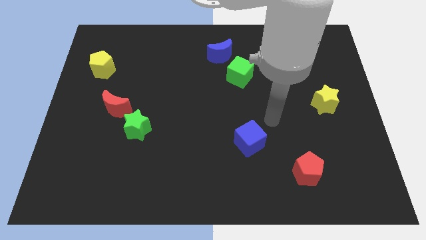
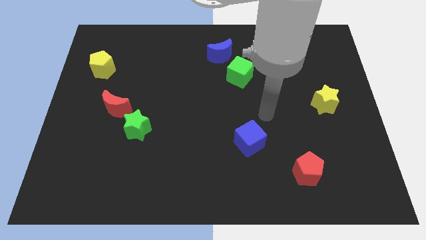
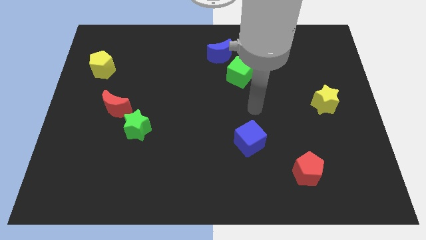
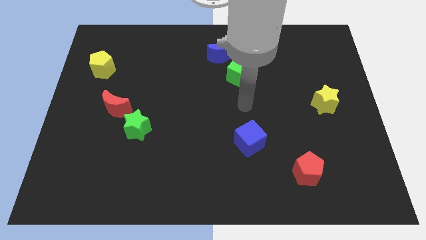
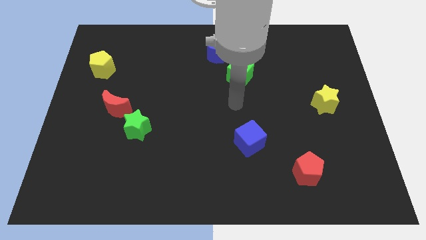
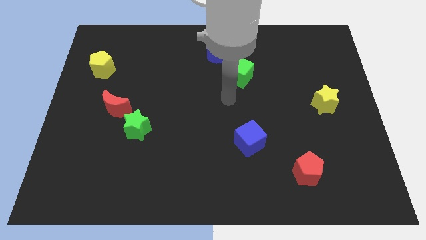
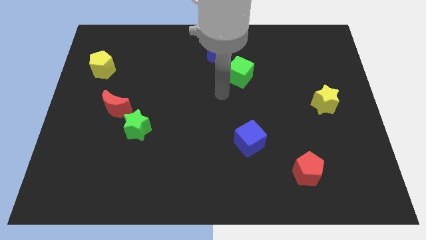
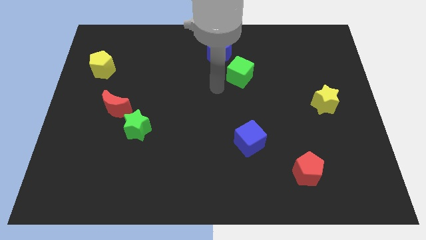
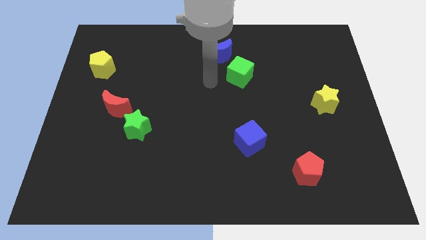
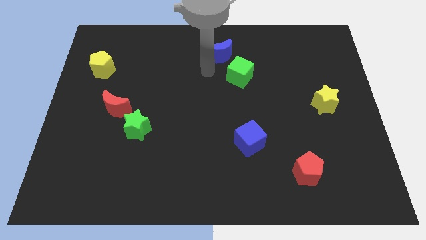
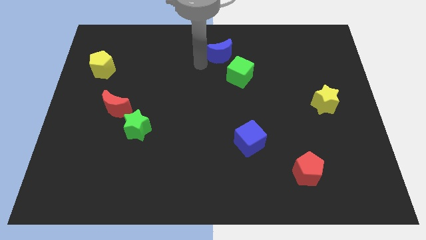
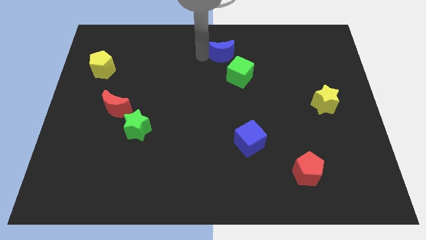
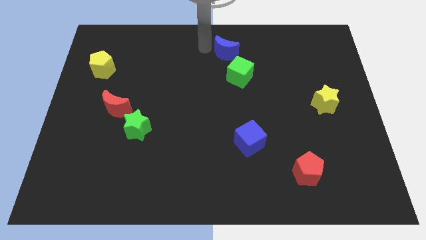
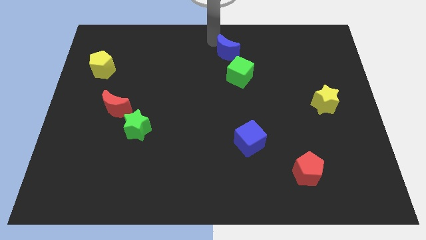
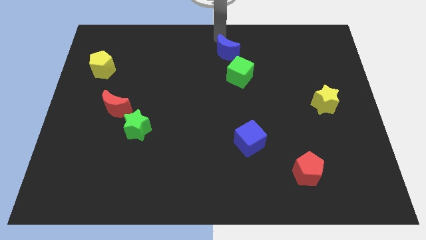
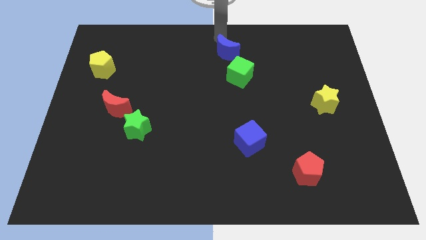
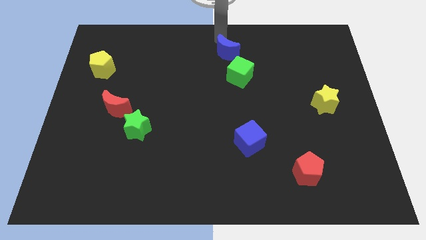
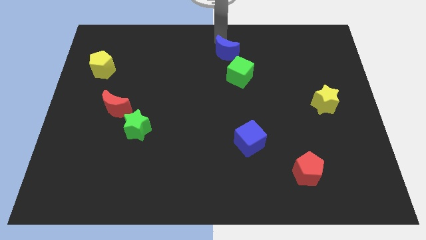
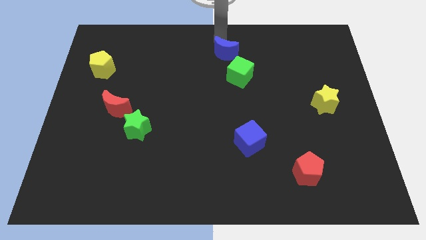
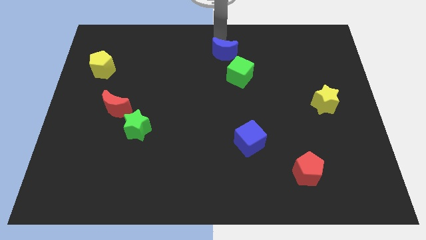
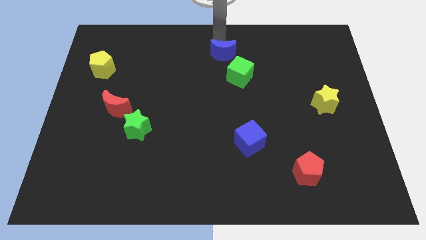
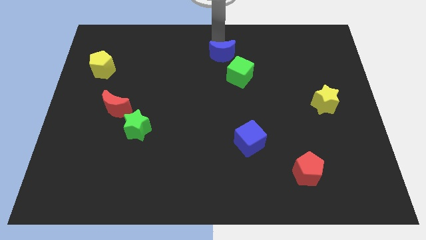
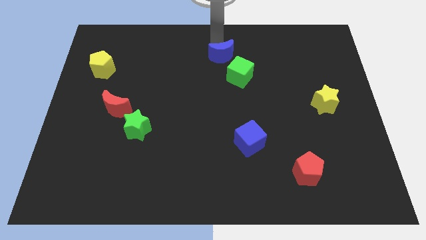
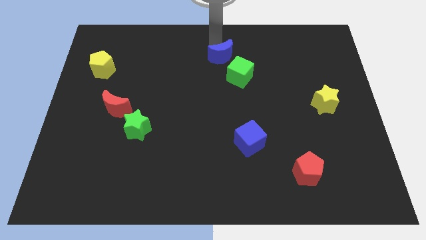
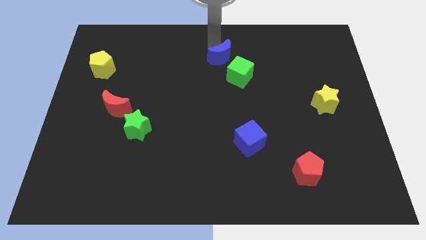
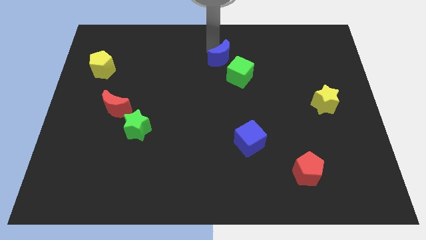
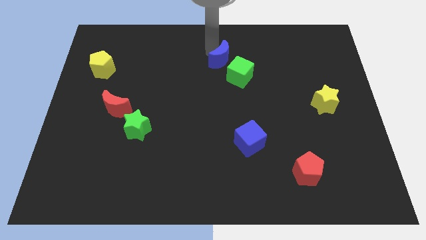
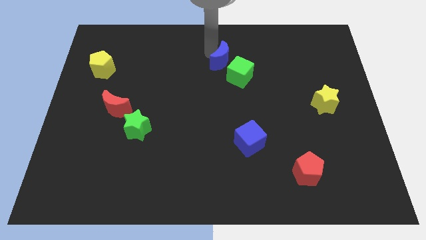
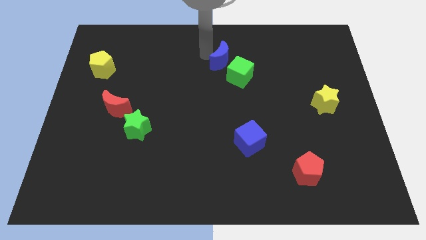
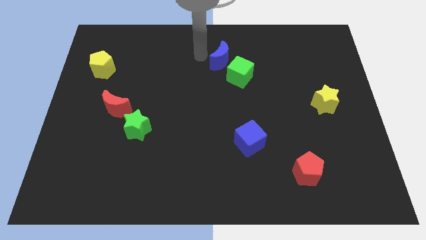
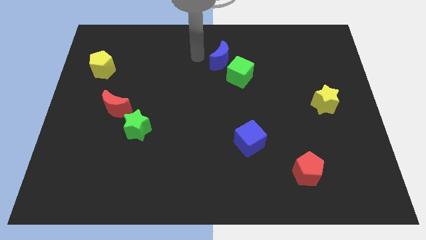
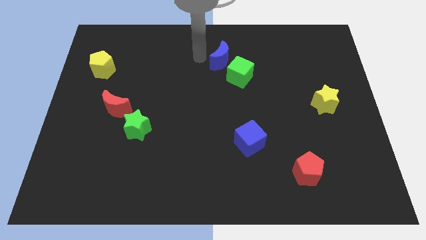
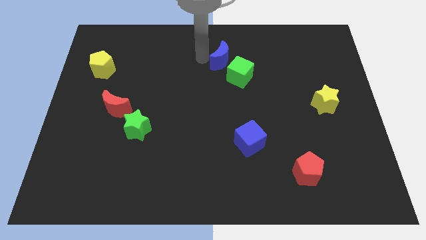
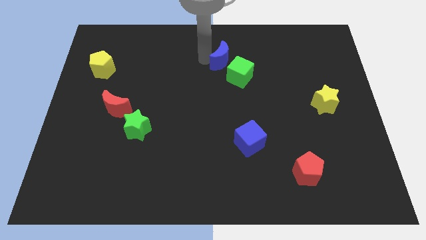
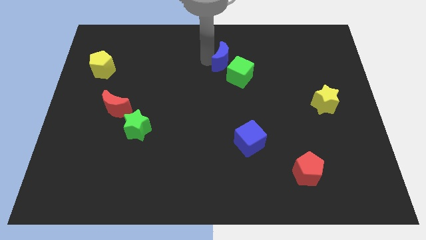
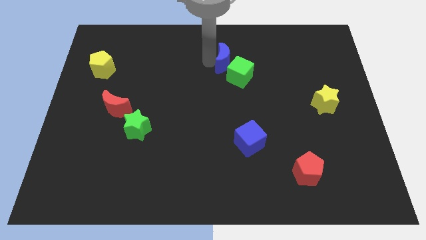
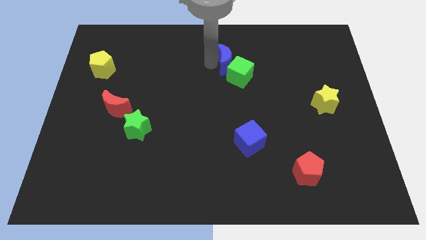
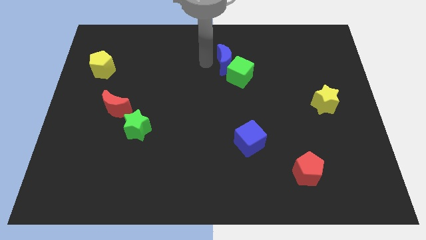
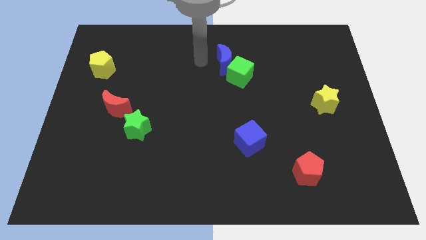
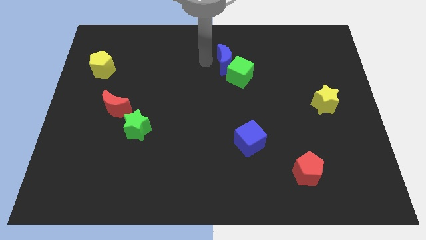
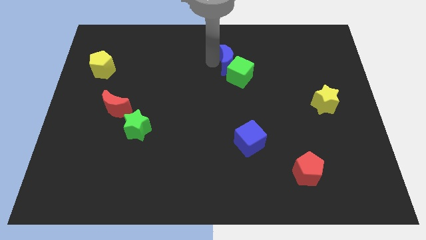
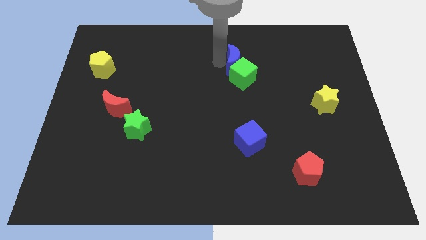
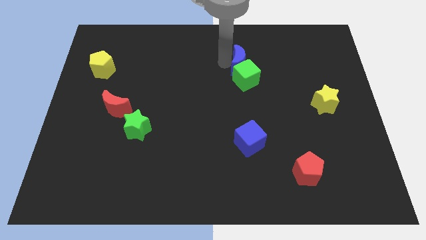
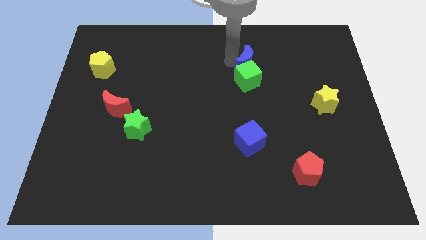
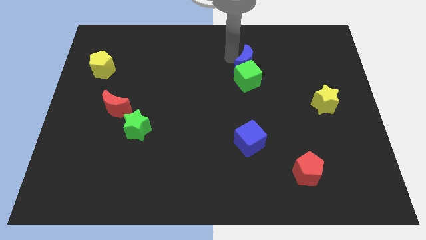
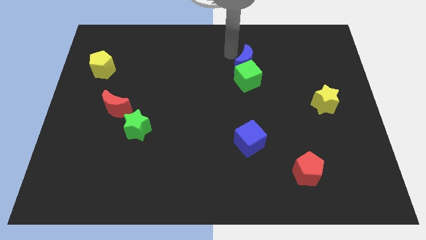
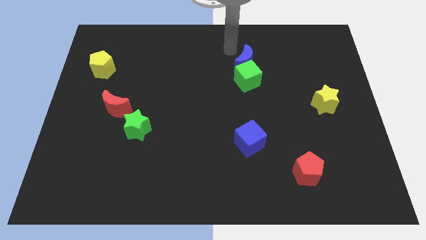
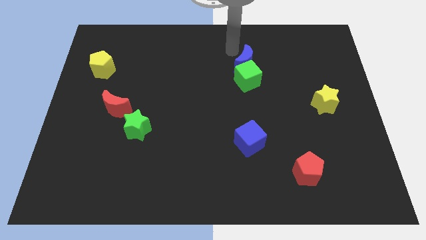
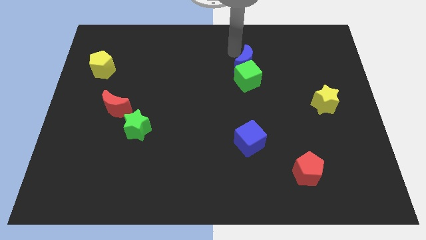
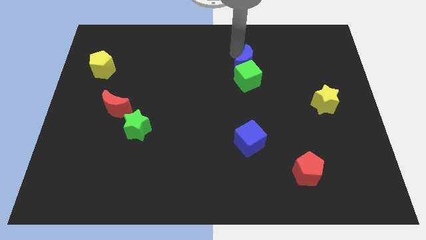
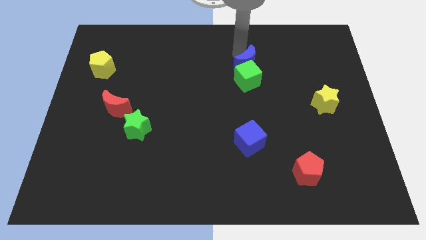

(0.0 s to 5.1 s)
push the blue moon down and right a little bit

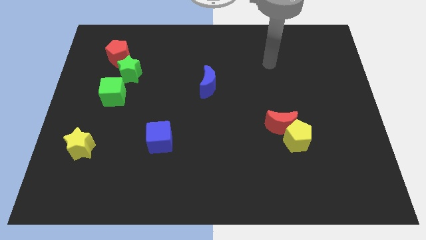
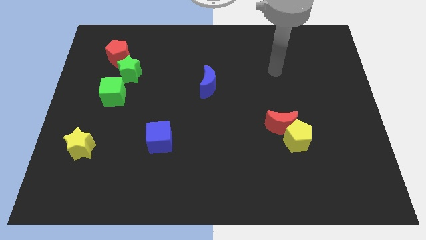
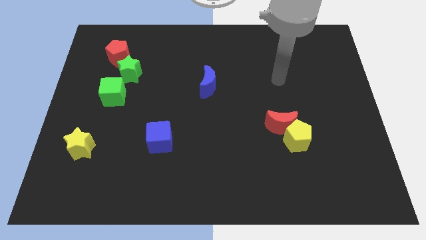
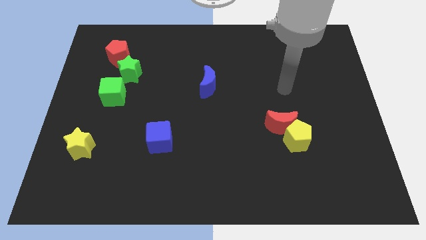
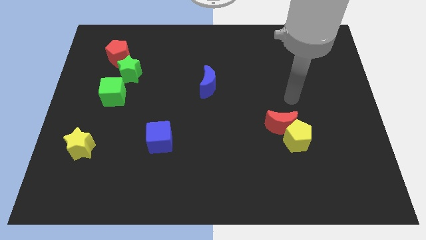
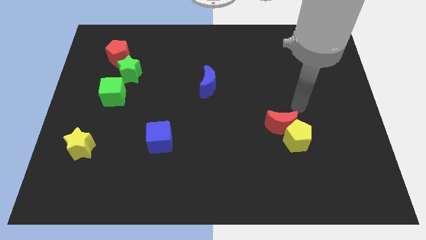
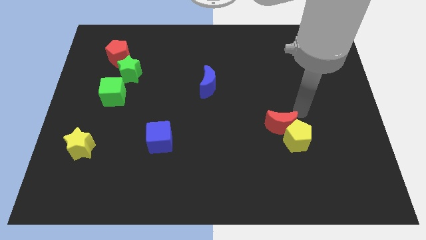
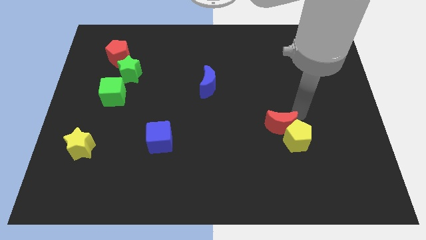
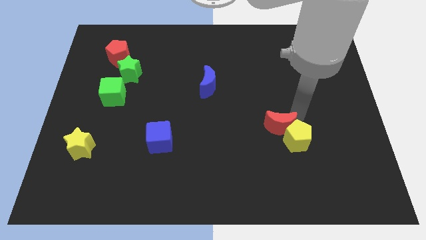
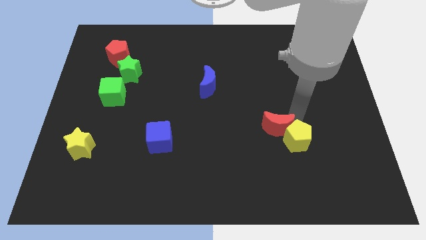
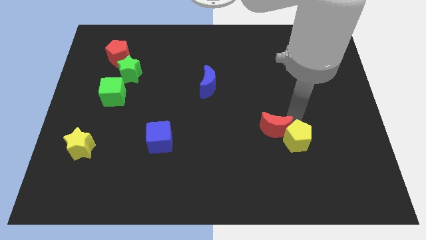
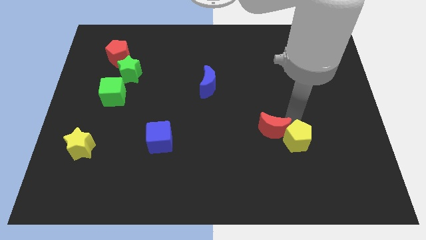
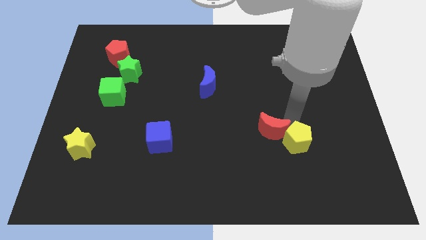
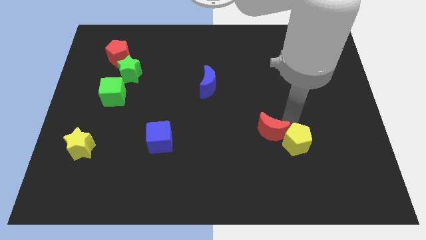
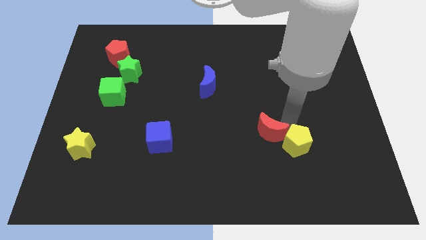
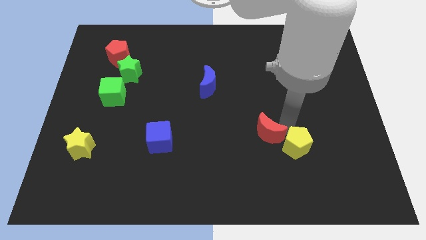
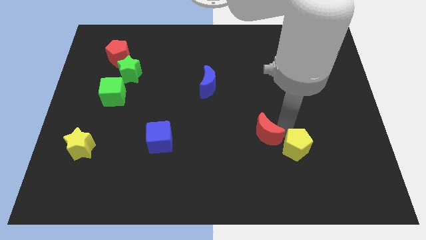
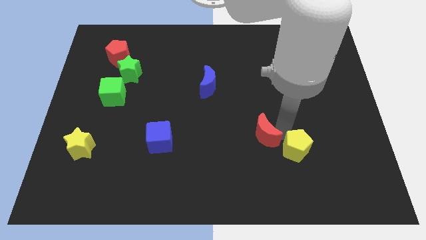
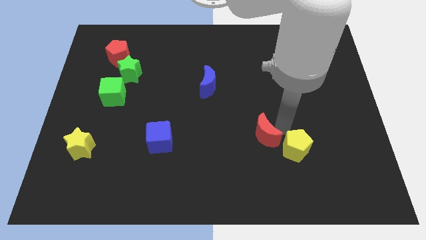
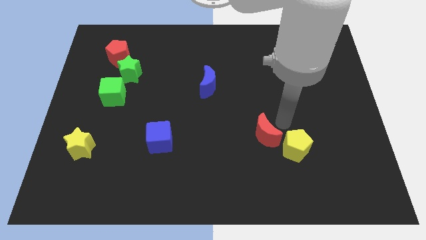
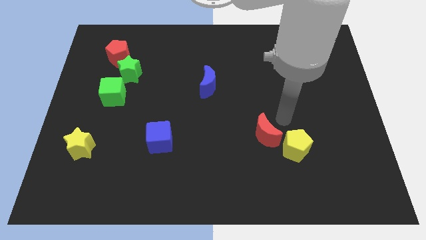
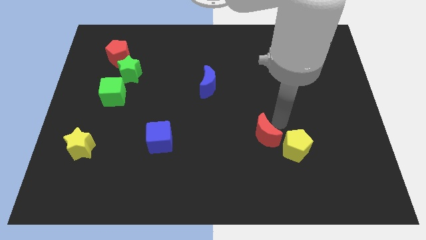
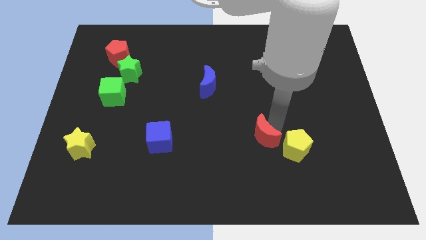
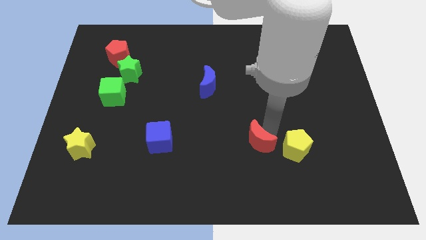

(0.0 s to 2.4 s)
slide the red moon downwards and then left a bit

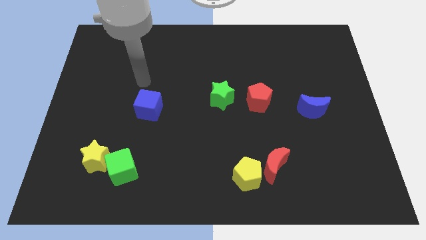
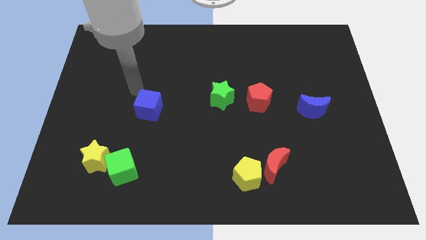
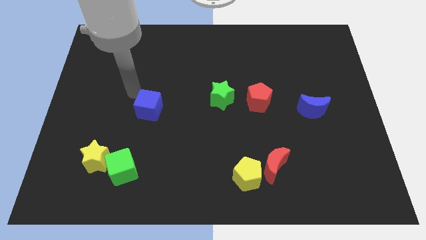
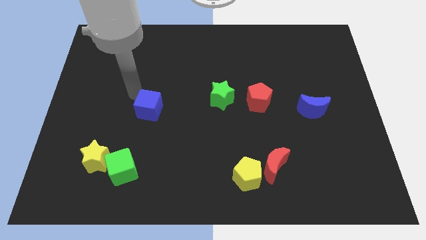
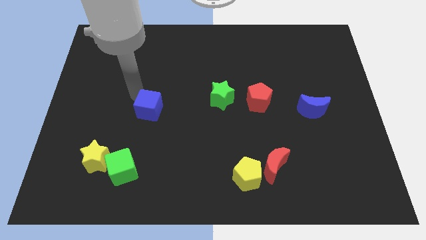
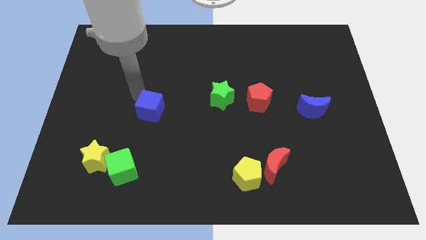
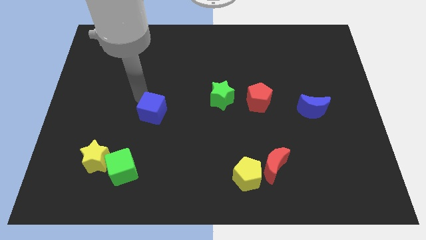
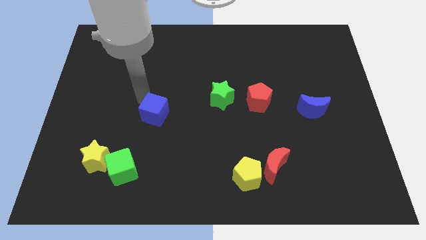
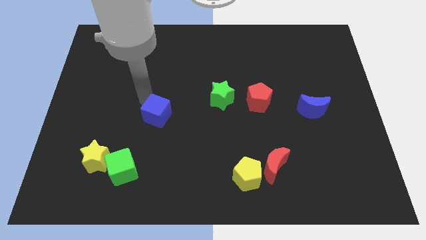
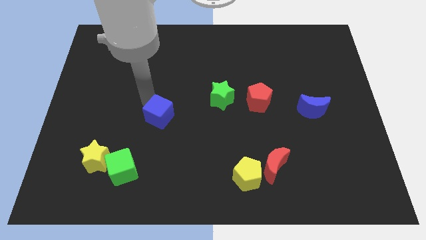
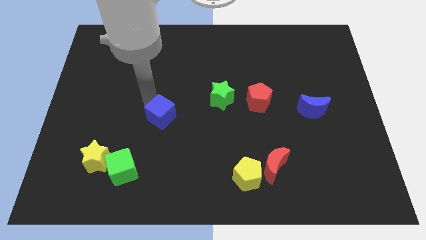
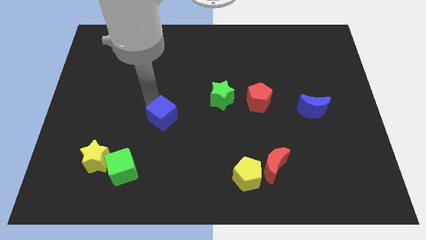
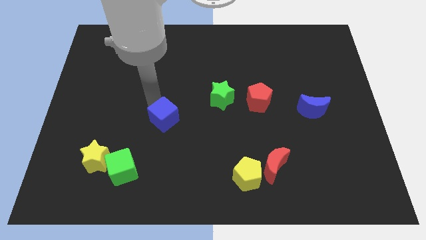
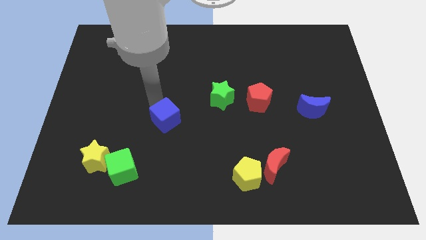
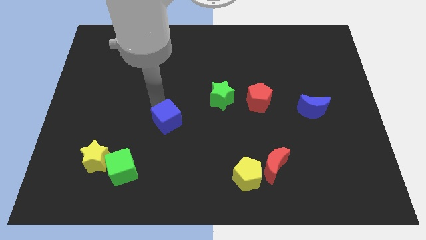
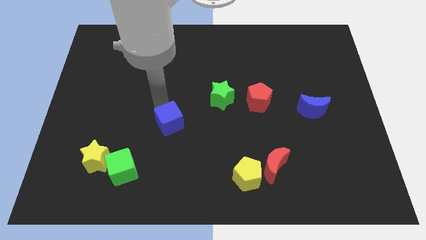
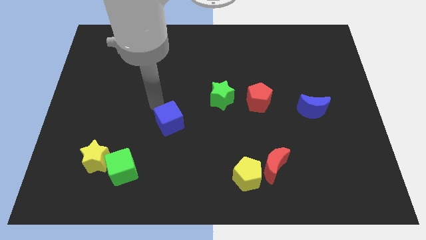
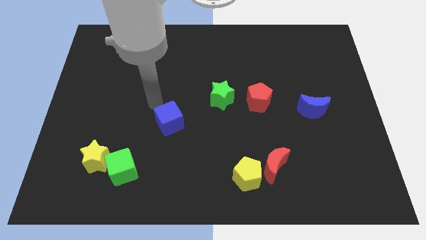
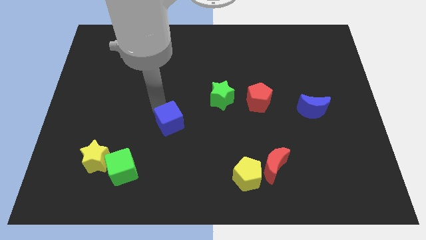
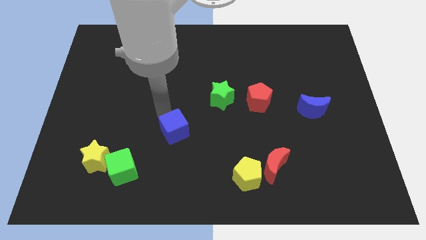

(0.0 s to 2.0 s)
slide the blue cube a bit down and then right
